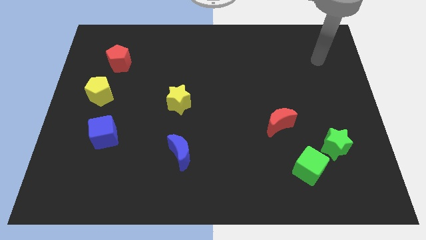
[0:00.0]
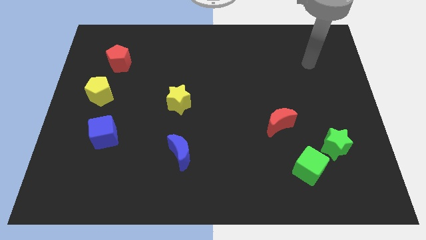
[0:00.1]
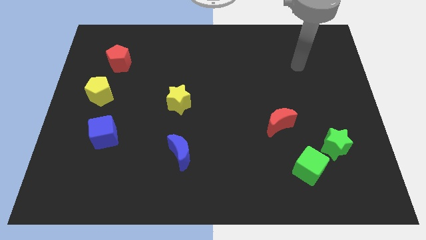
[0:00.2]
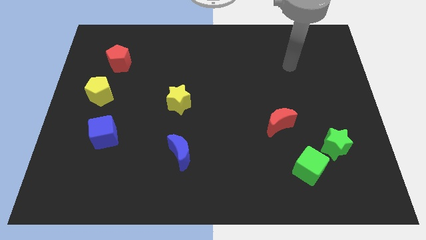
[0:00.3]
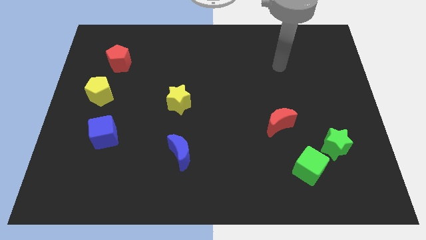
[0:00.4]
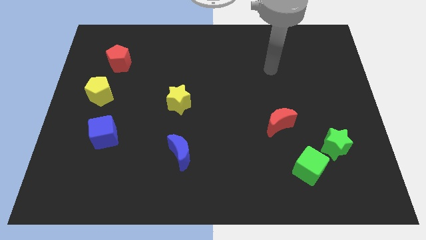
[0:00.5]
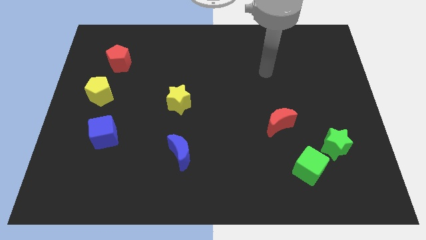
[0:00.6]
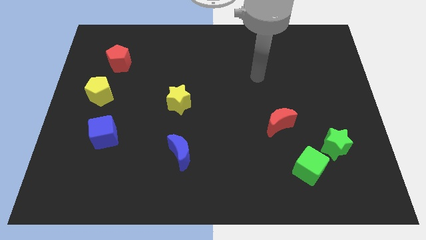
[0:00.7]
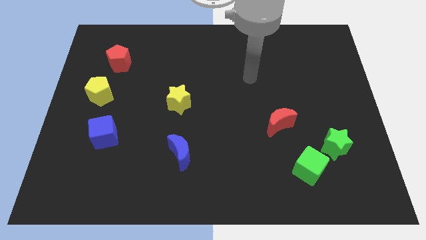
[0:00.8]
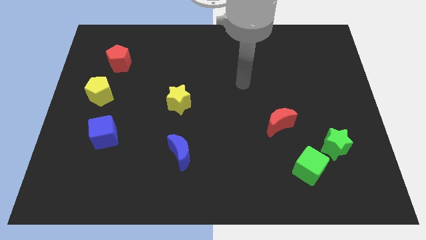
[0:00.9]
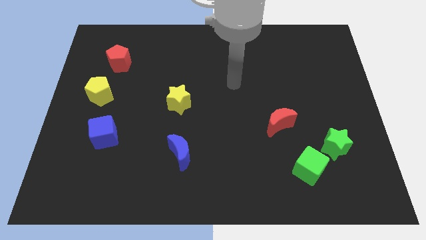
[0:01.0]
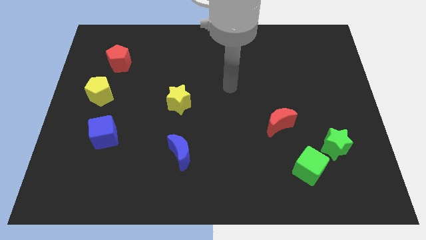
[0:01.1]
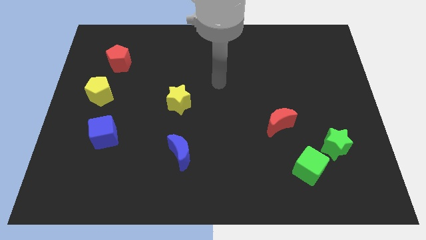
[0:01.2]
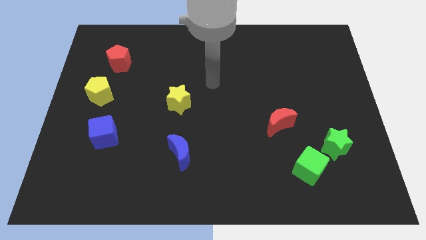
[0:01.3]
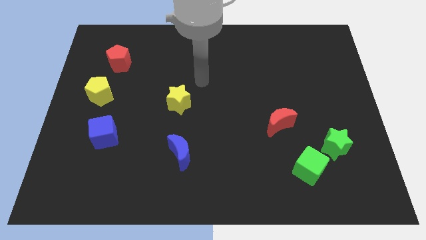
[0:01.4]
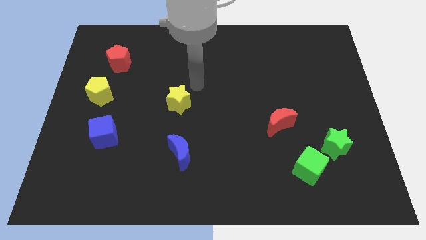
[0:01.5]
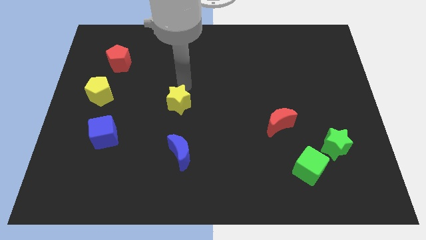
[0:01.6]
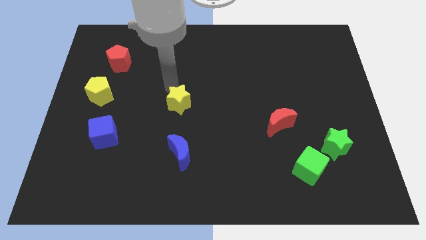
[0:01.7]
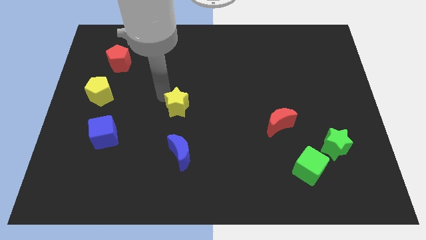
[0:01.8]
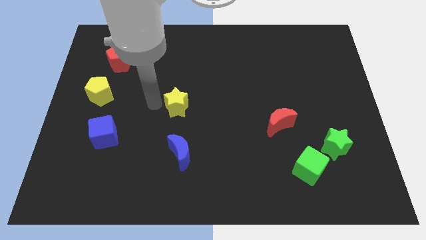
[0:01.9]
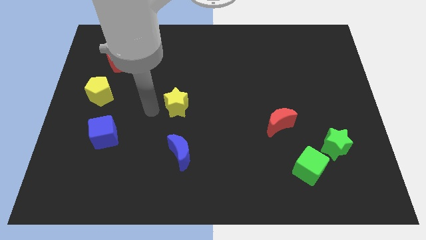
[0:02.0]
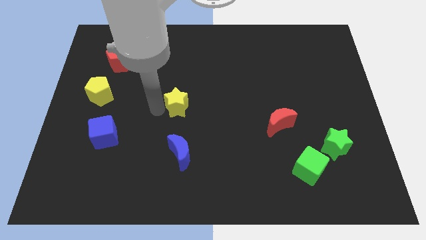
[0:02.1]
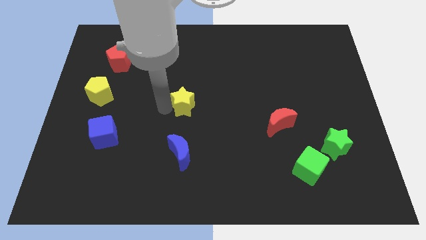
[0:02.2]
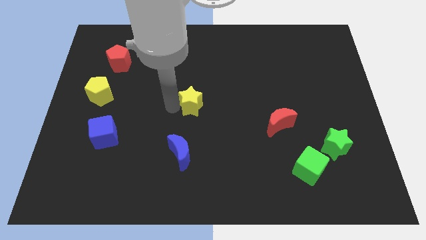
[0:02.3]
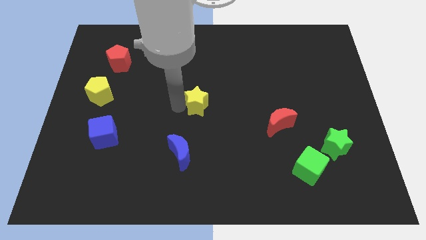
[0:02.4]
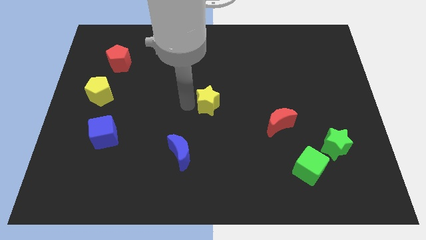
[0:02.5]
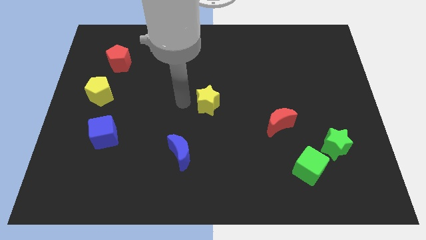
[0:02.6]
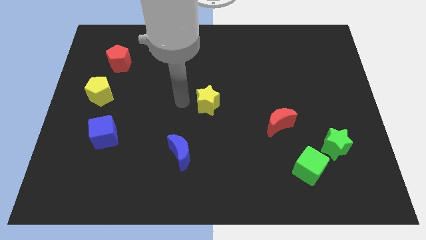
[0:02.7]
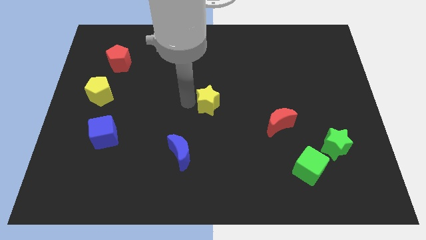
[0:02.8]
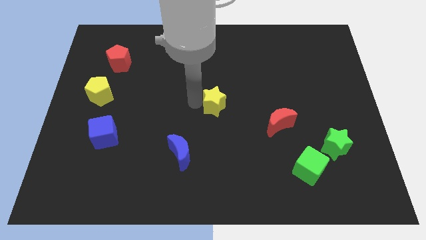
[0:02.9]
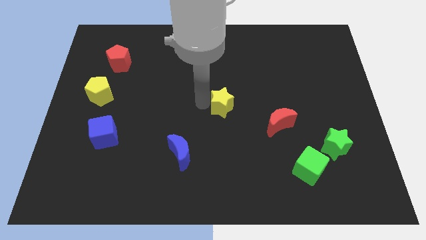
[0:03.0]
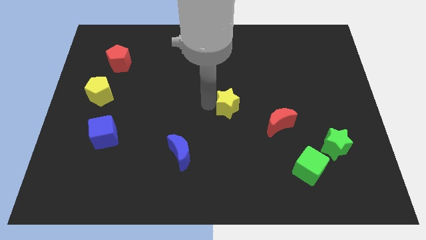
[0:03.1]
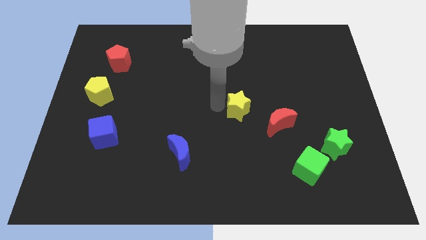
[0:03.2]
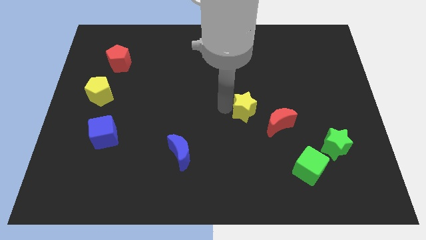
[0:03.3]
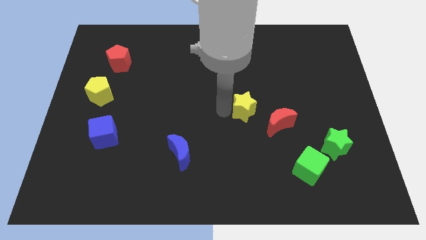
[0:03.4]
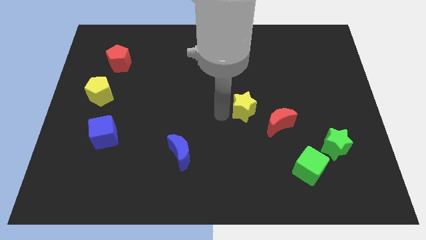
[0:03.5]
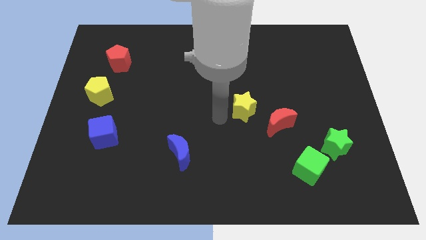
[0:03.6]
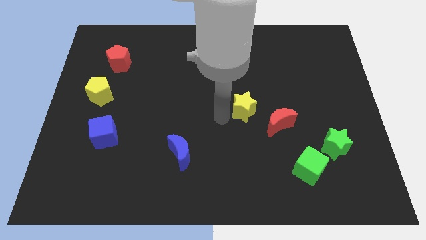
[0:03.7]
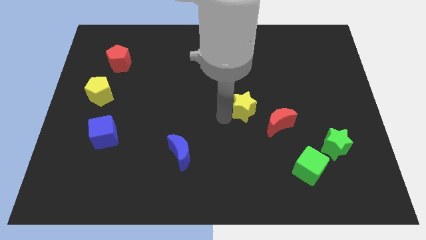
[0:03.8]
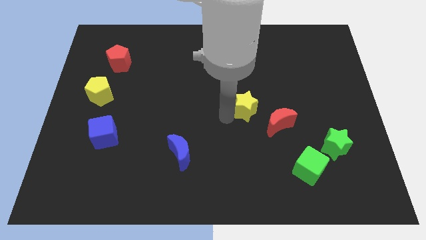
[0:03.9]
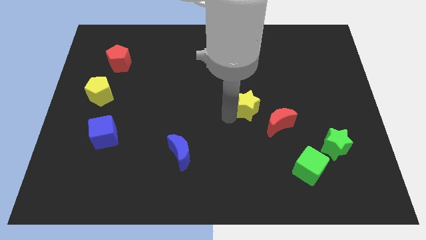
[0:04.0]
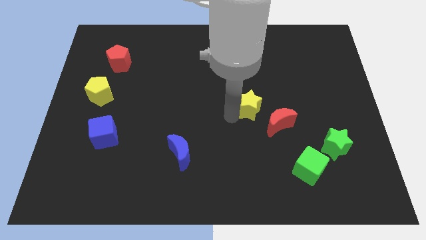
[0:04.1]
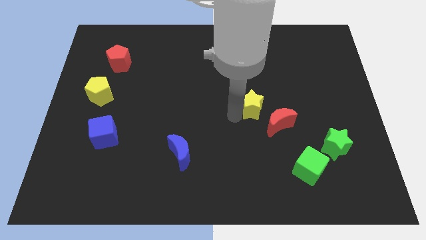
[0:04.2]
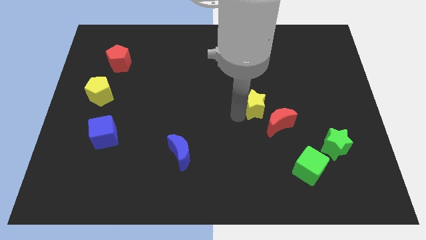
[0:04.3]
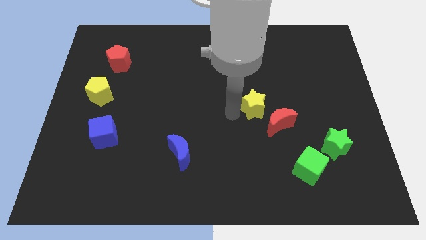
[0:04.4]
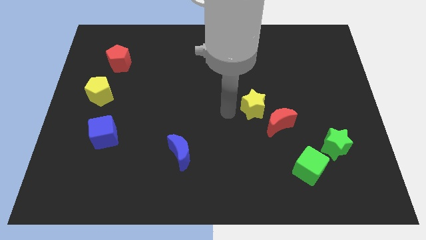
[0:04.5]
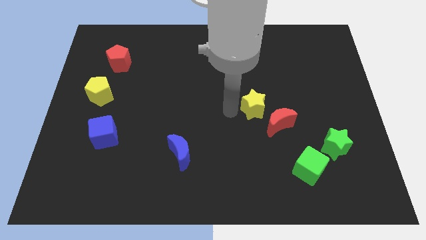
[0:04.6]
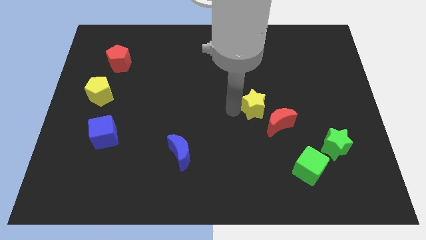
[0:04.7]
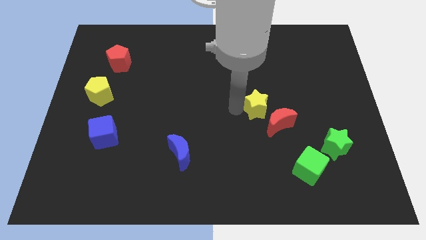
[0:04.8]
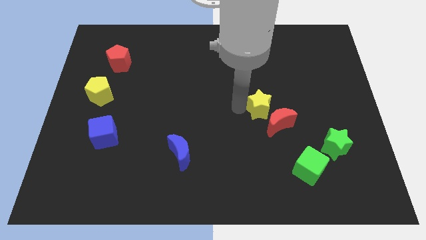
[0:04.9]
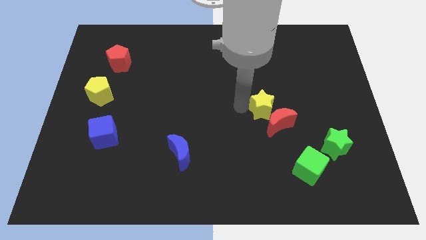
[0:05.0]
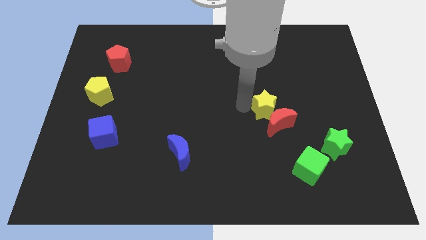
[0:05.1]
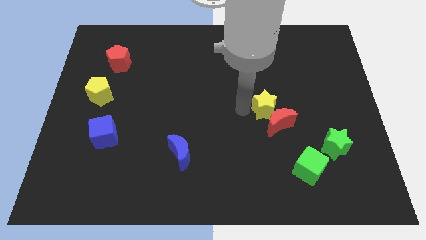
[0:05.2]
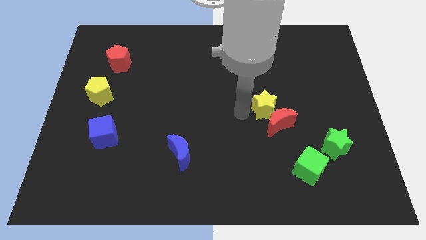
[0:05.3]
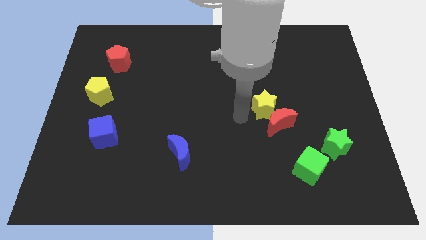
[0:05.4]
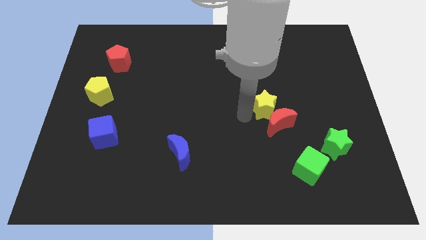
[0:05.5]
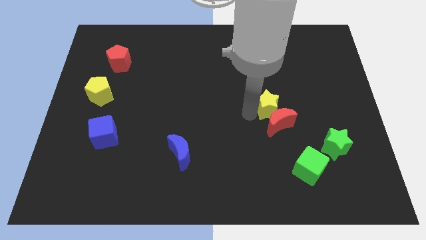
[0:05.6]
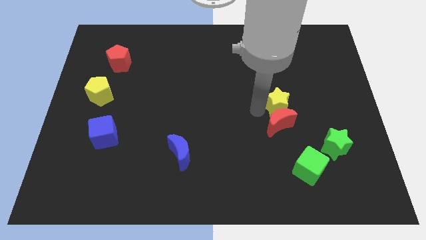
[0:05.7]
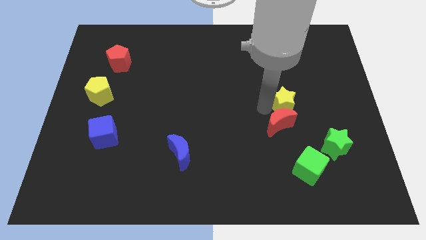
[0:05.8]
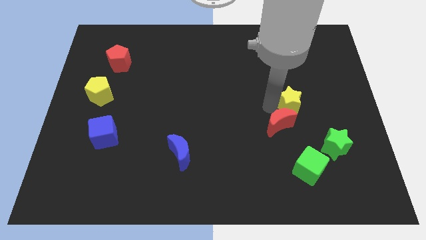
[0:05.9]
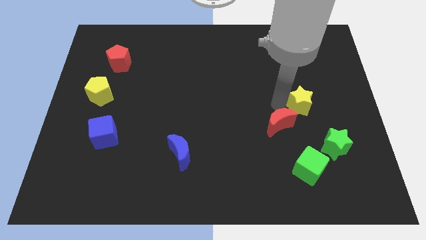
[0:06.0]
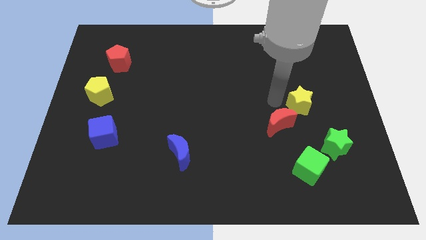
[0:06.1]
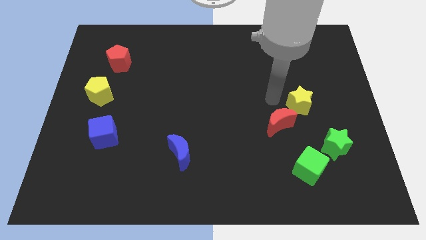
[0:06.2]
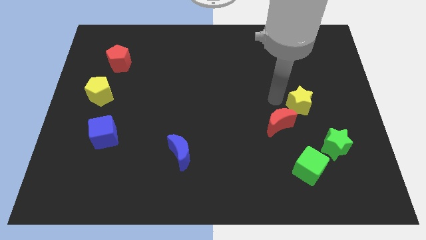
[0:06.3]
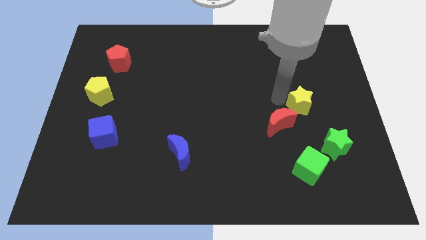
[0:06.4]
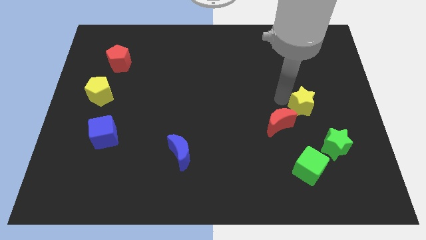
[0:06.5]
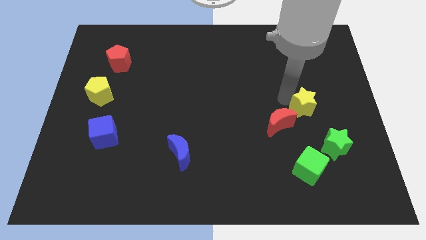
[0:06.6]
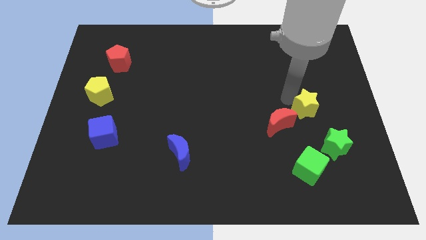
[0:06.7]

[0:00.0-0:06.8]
push the yellow star above the green star
